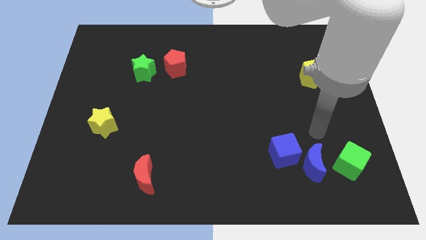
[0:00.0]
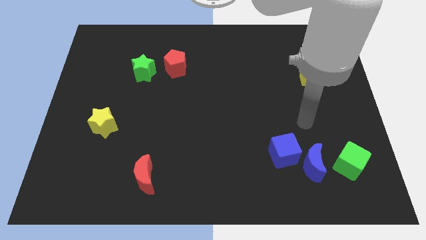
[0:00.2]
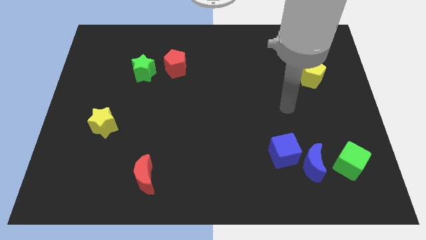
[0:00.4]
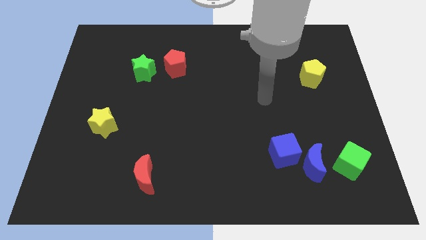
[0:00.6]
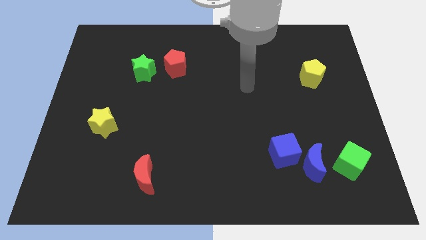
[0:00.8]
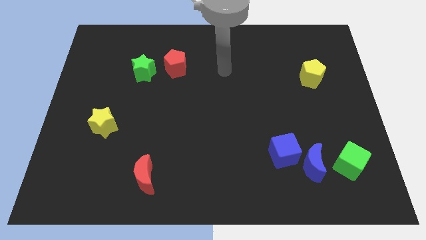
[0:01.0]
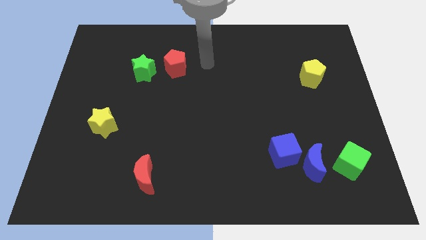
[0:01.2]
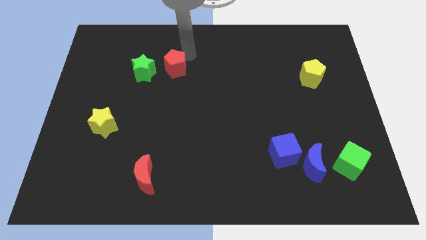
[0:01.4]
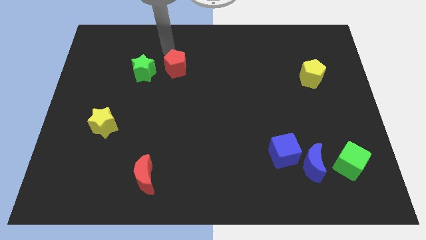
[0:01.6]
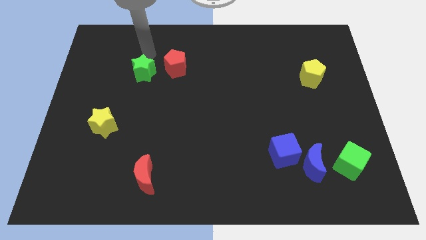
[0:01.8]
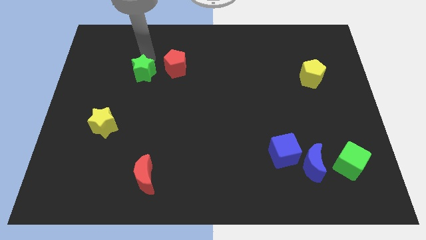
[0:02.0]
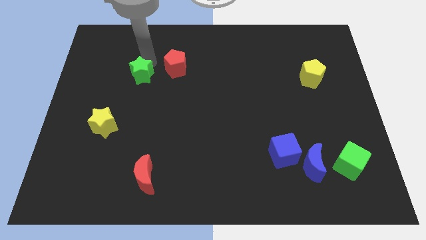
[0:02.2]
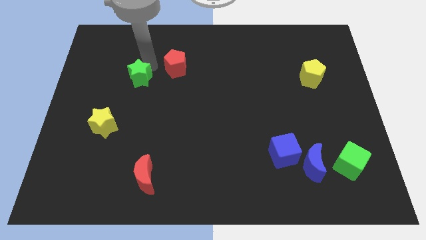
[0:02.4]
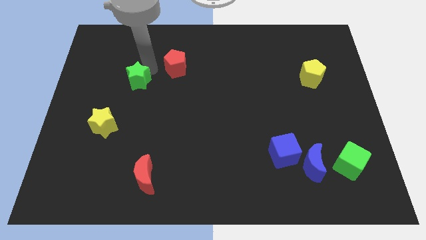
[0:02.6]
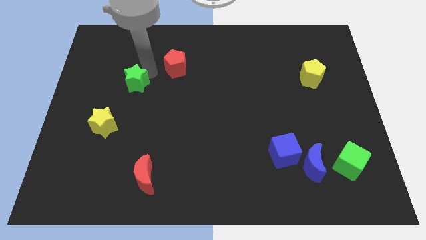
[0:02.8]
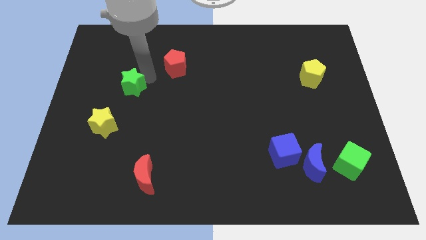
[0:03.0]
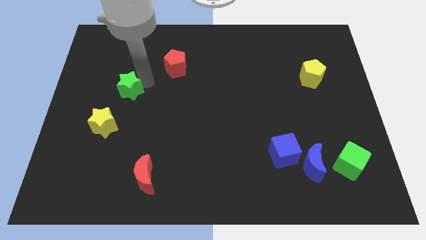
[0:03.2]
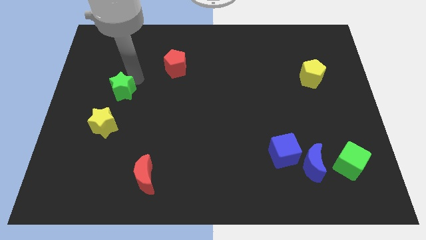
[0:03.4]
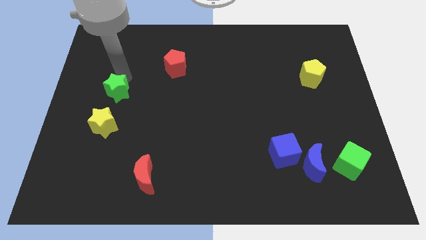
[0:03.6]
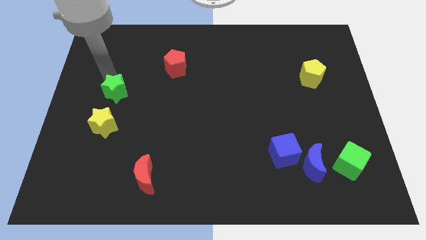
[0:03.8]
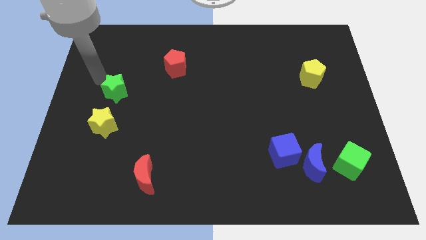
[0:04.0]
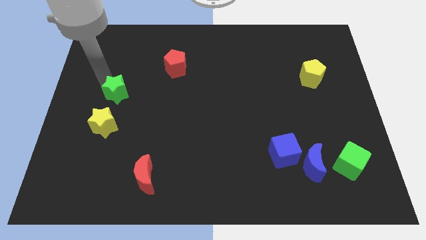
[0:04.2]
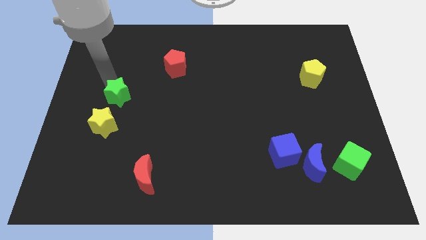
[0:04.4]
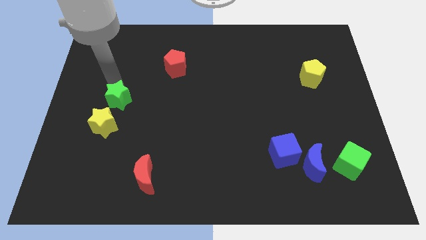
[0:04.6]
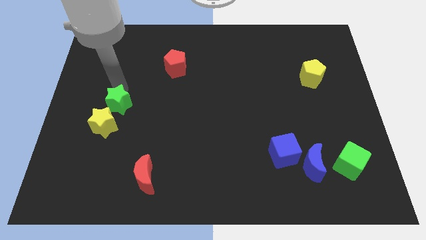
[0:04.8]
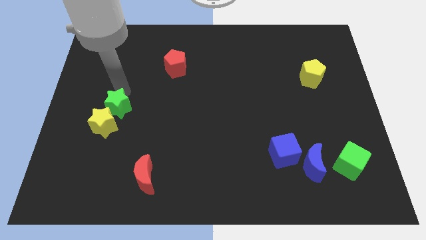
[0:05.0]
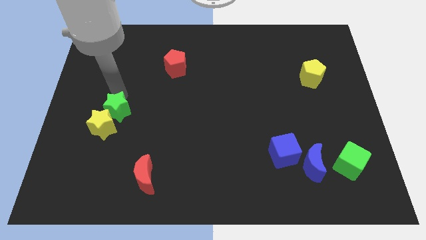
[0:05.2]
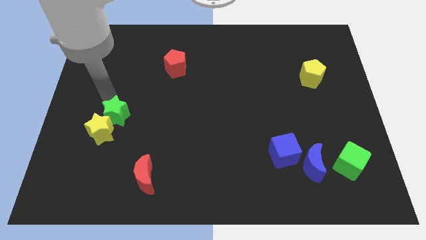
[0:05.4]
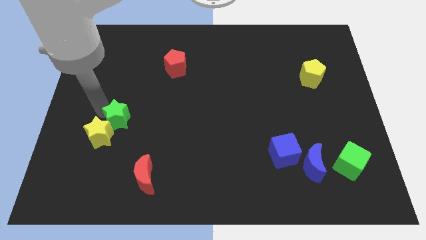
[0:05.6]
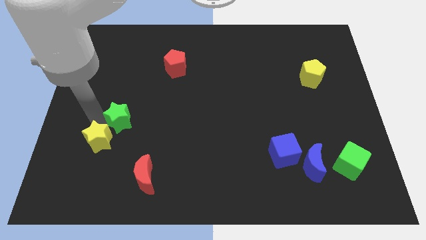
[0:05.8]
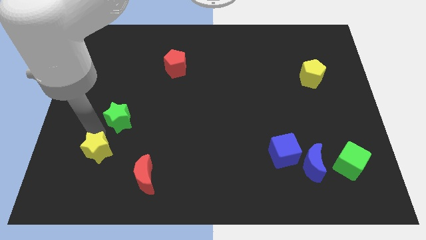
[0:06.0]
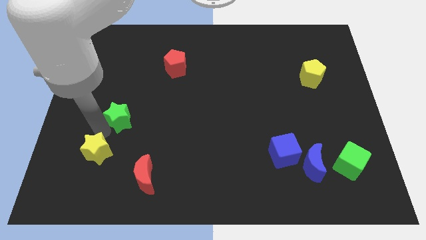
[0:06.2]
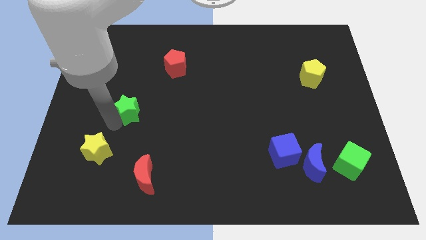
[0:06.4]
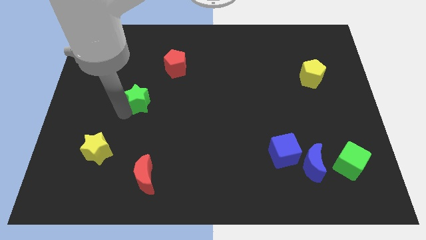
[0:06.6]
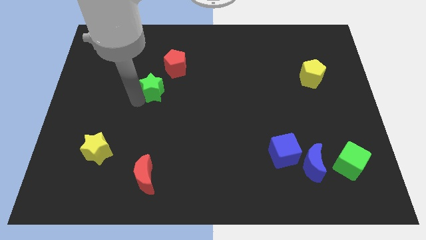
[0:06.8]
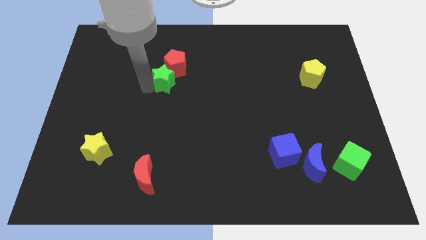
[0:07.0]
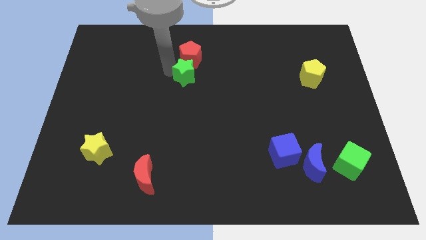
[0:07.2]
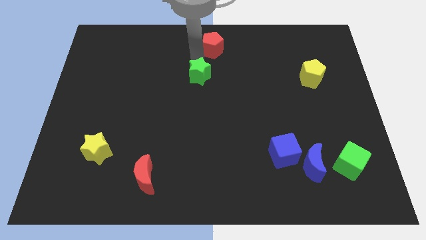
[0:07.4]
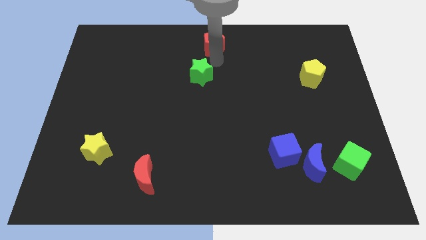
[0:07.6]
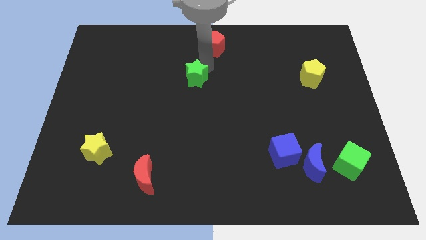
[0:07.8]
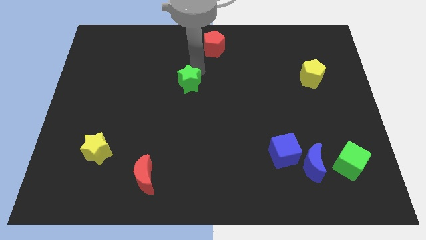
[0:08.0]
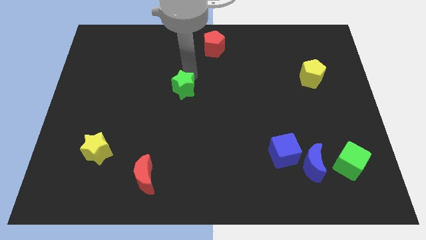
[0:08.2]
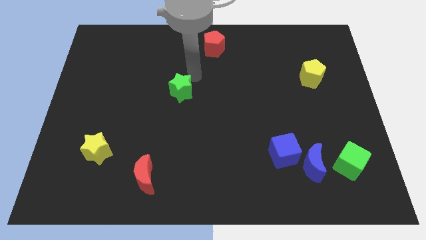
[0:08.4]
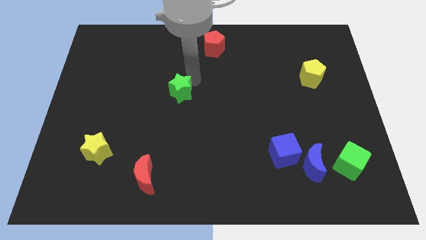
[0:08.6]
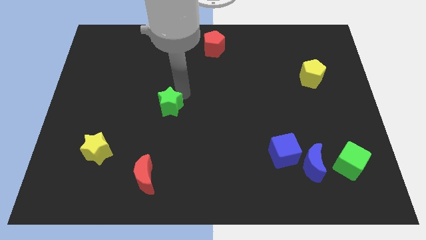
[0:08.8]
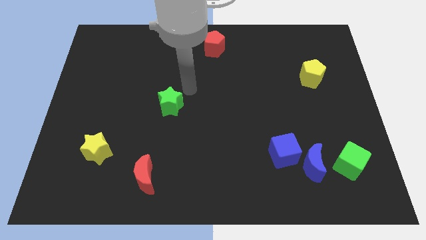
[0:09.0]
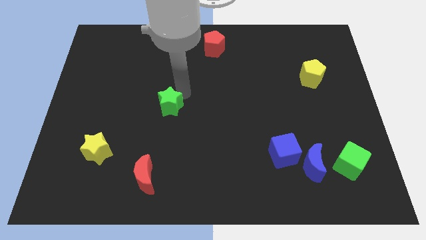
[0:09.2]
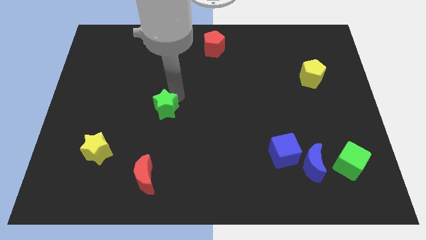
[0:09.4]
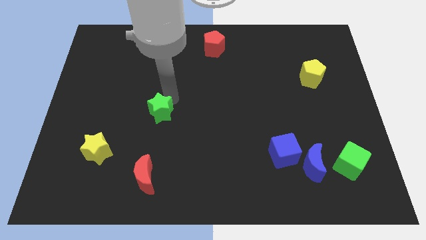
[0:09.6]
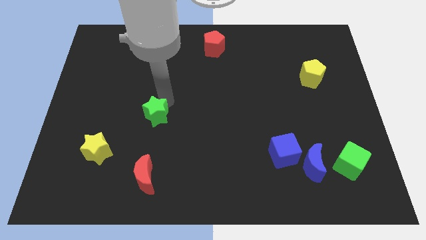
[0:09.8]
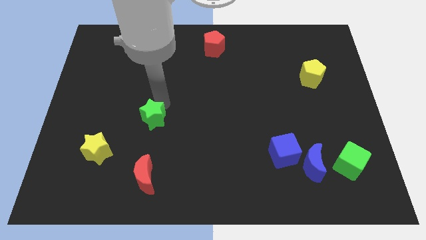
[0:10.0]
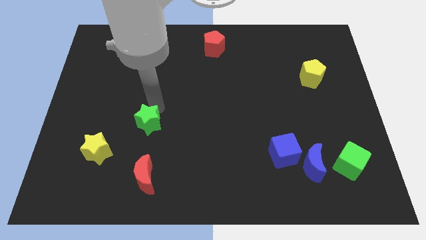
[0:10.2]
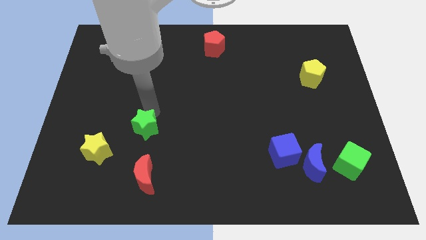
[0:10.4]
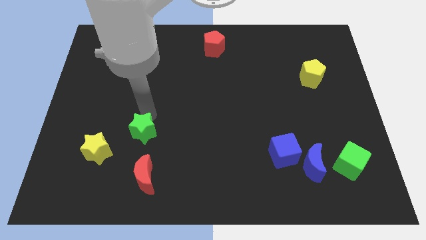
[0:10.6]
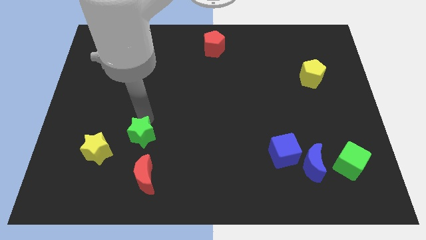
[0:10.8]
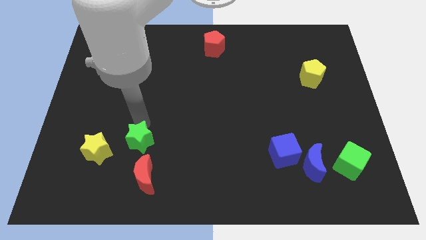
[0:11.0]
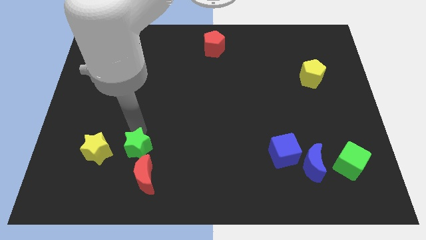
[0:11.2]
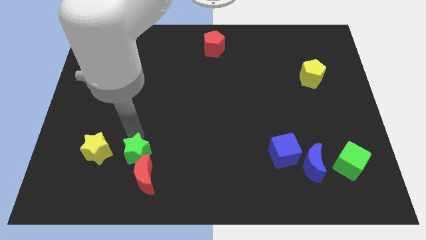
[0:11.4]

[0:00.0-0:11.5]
put the green star next to the red moon

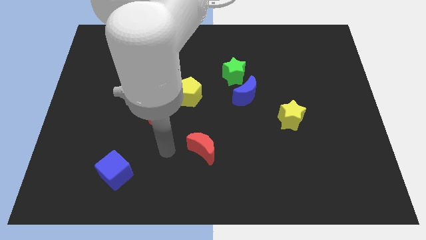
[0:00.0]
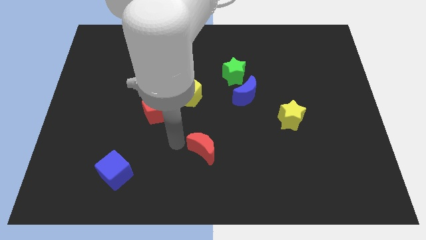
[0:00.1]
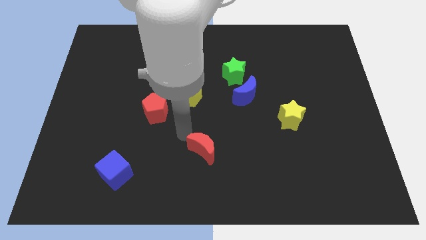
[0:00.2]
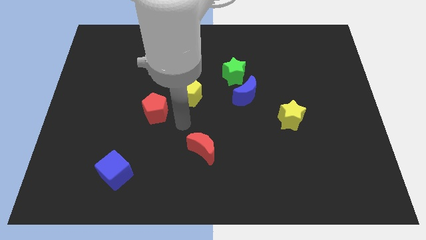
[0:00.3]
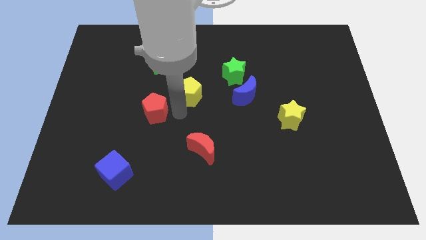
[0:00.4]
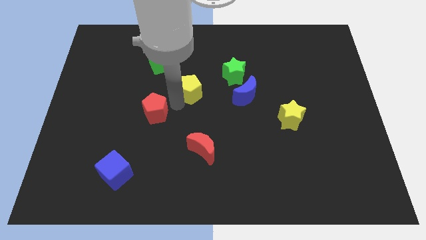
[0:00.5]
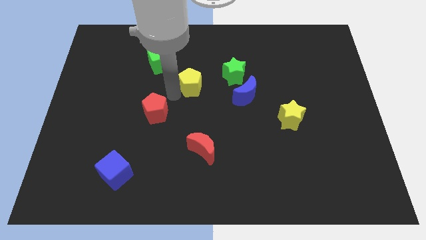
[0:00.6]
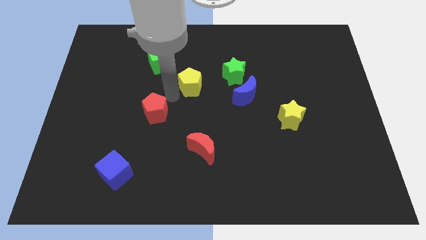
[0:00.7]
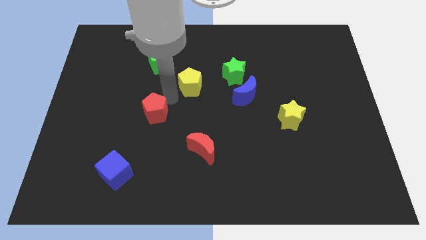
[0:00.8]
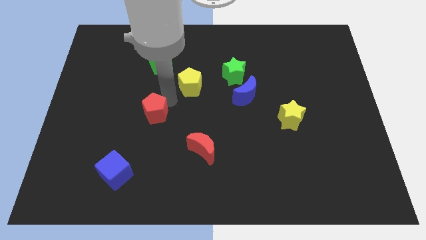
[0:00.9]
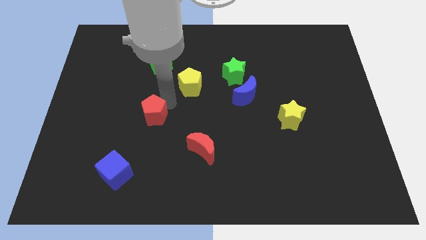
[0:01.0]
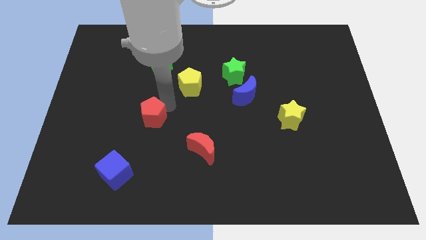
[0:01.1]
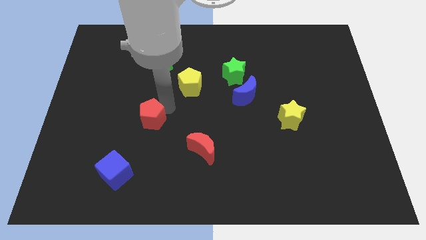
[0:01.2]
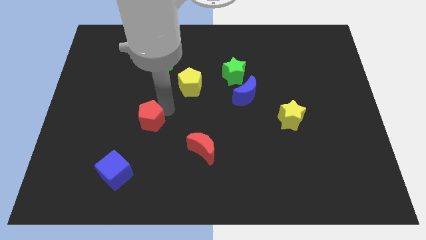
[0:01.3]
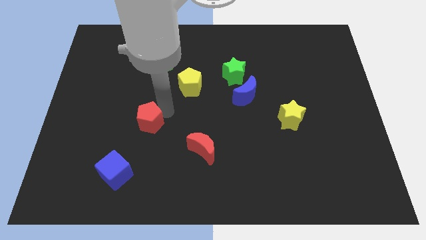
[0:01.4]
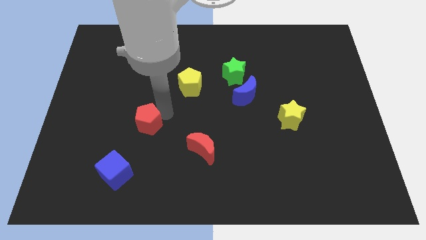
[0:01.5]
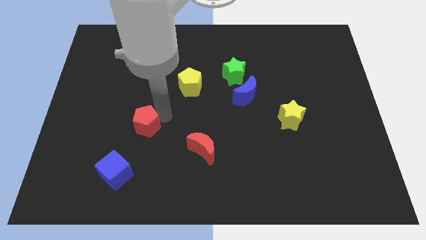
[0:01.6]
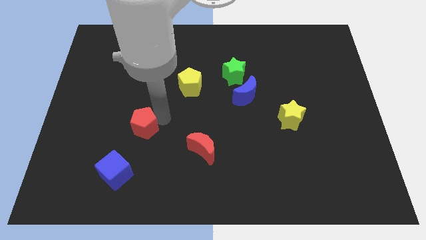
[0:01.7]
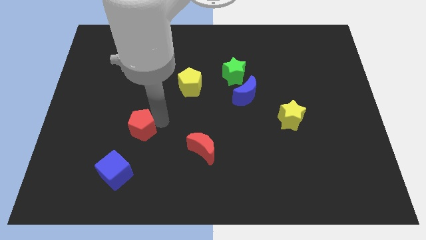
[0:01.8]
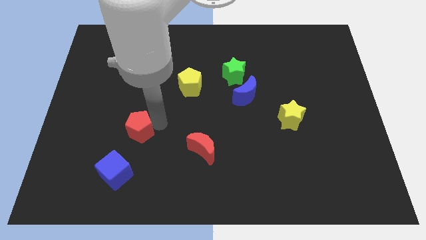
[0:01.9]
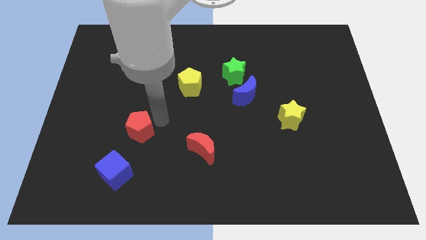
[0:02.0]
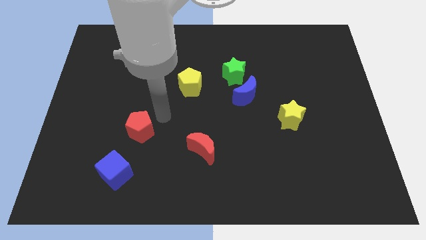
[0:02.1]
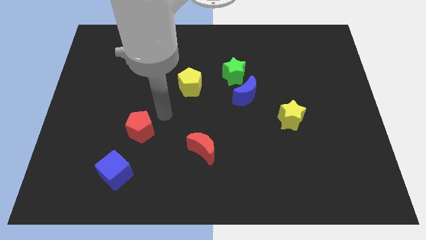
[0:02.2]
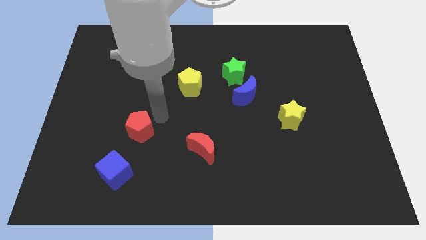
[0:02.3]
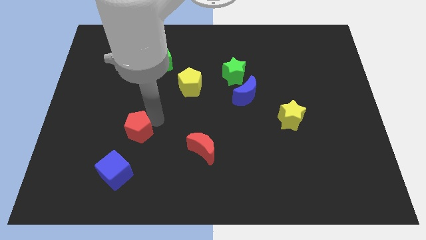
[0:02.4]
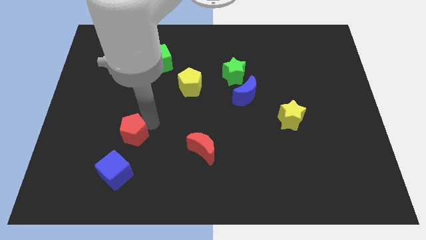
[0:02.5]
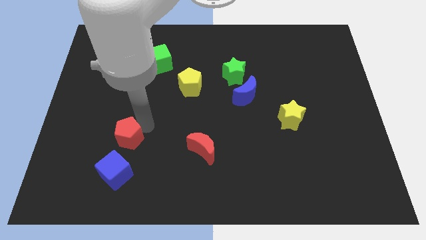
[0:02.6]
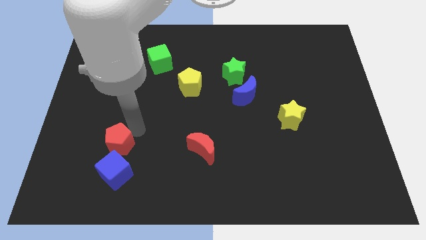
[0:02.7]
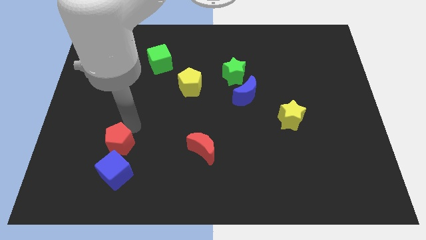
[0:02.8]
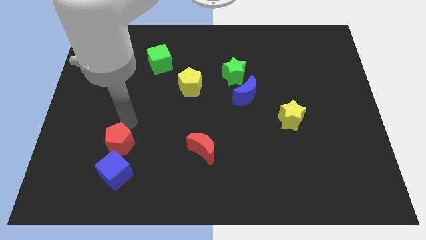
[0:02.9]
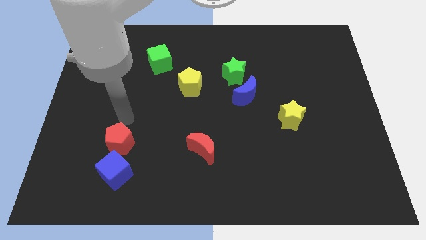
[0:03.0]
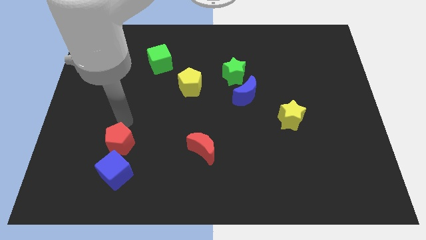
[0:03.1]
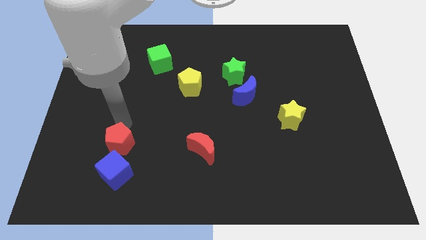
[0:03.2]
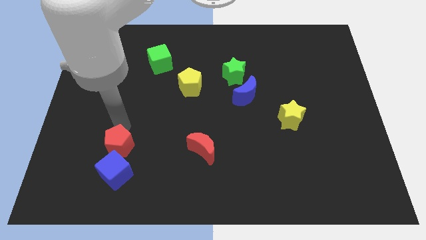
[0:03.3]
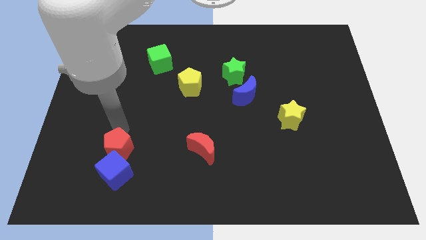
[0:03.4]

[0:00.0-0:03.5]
push the red pentagon to the blue cube
